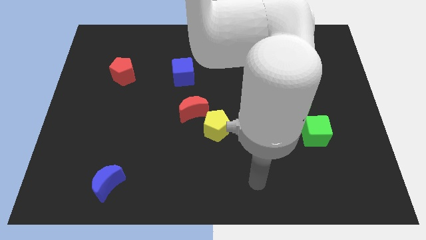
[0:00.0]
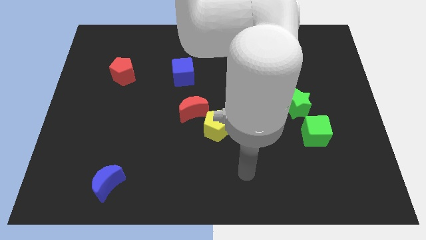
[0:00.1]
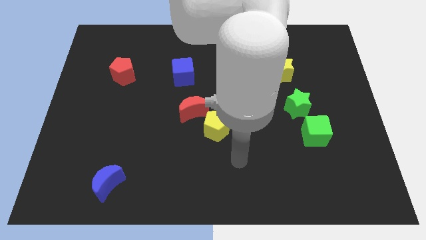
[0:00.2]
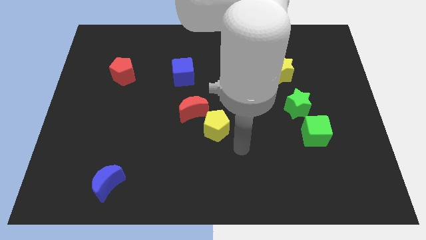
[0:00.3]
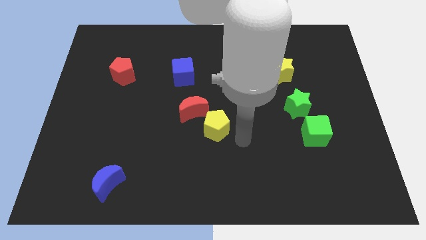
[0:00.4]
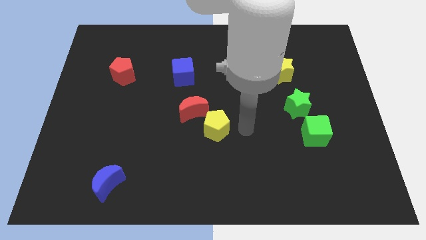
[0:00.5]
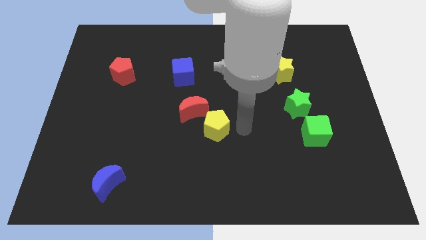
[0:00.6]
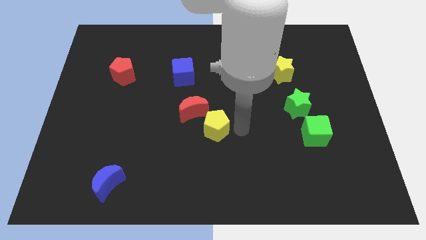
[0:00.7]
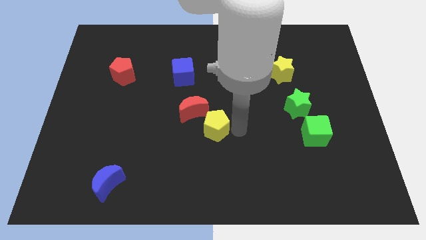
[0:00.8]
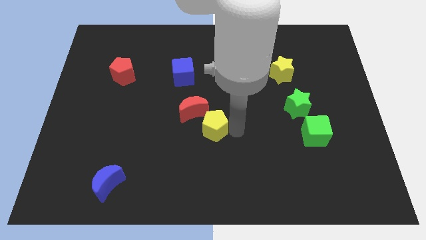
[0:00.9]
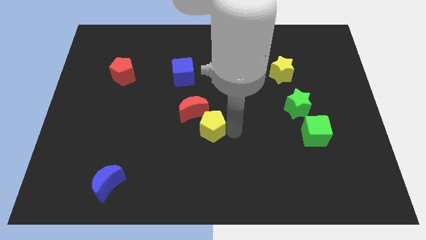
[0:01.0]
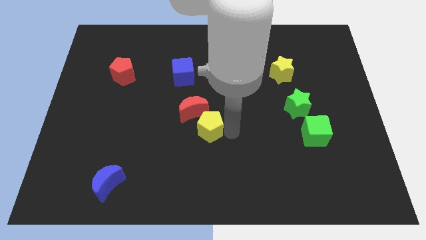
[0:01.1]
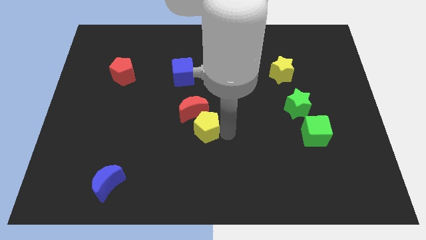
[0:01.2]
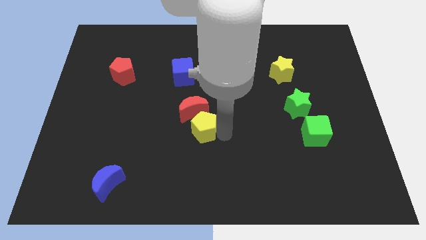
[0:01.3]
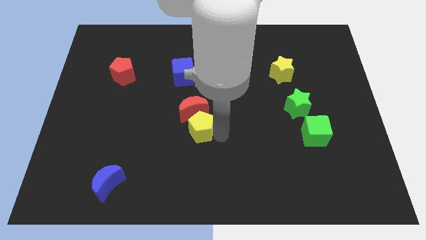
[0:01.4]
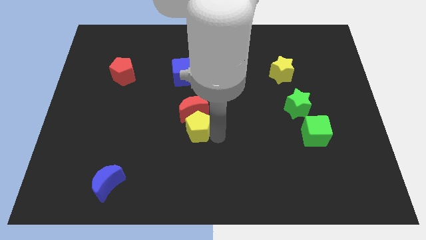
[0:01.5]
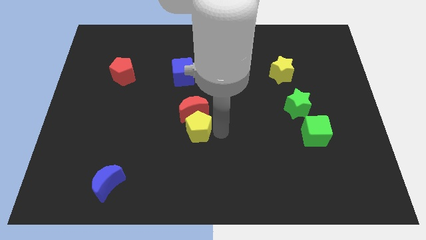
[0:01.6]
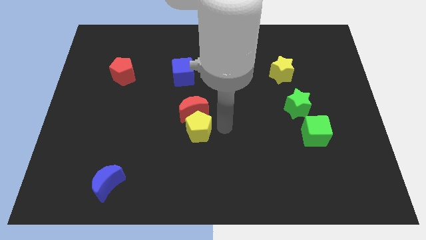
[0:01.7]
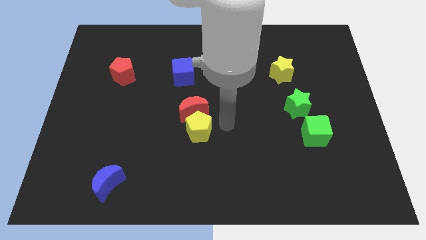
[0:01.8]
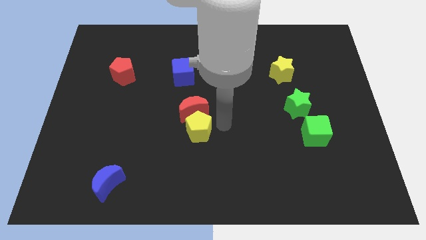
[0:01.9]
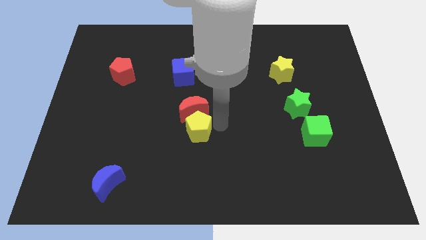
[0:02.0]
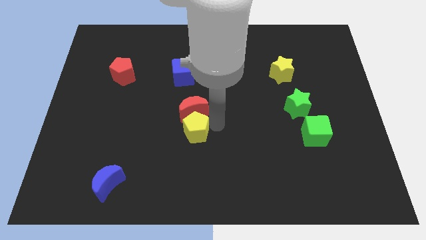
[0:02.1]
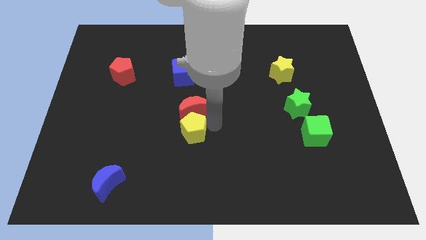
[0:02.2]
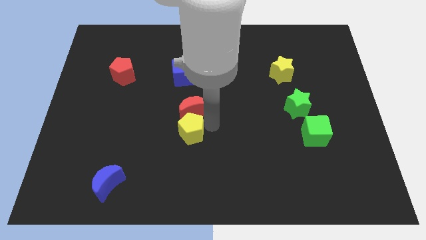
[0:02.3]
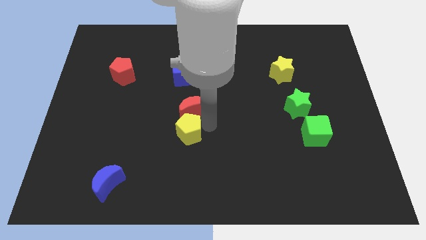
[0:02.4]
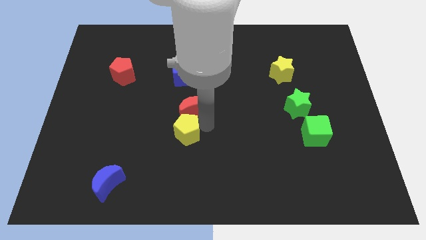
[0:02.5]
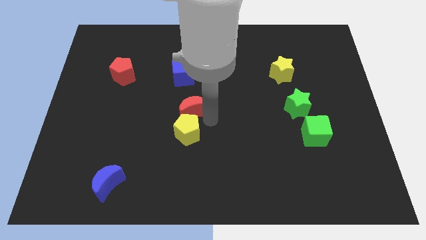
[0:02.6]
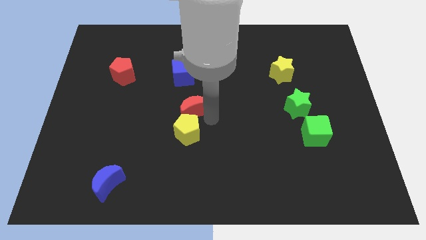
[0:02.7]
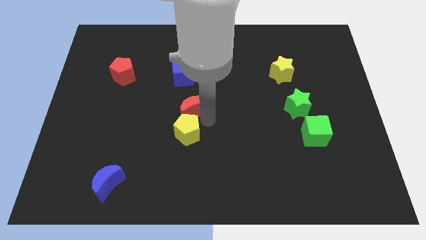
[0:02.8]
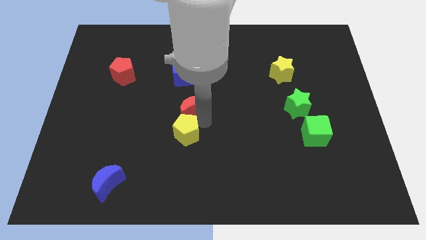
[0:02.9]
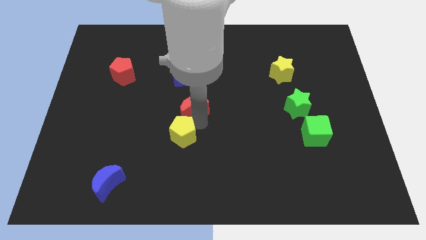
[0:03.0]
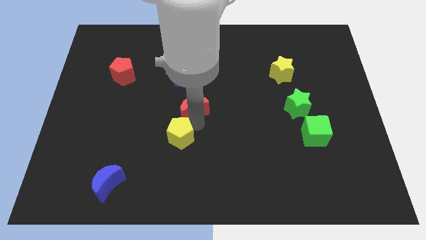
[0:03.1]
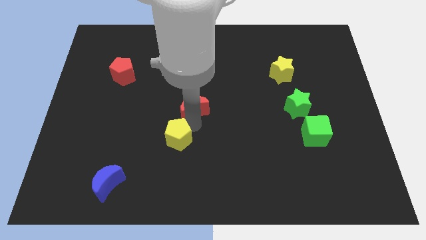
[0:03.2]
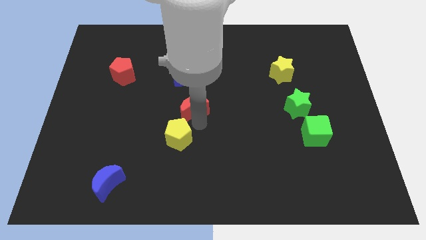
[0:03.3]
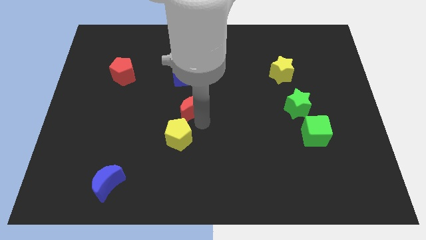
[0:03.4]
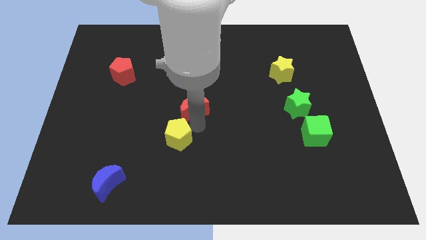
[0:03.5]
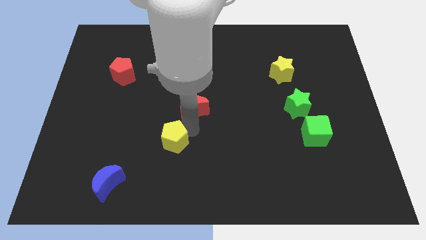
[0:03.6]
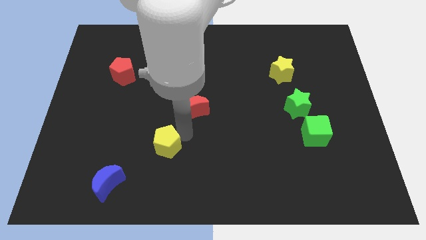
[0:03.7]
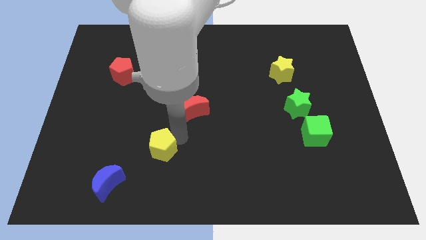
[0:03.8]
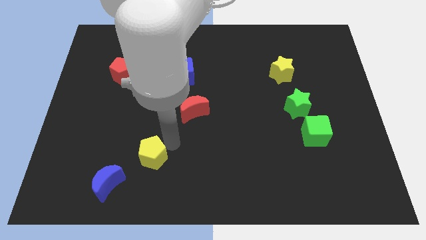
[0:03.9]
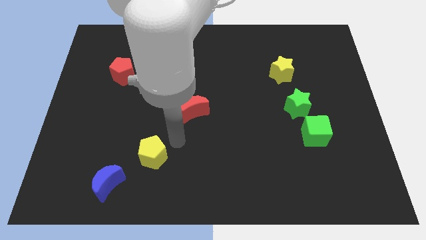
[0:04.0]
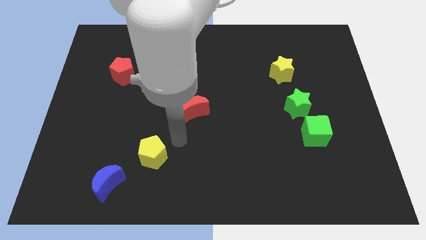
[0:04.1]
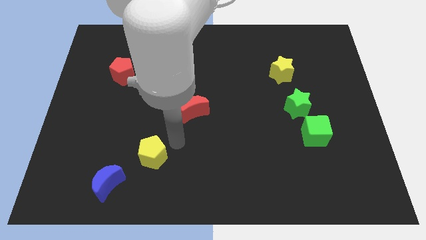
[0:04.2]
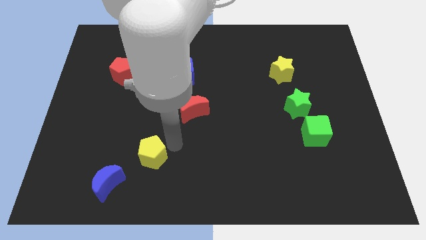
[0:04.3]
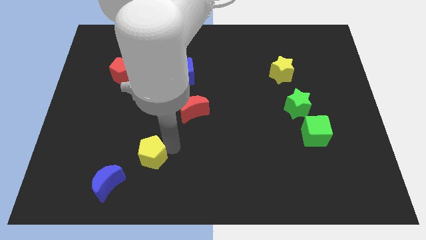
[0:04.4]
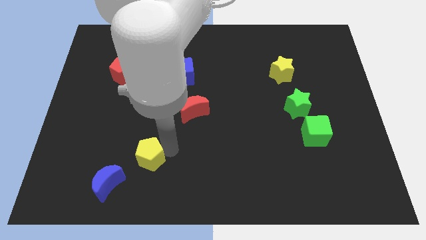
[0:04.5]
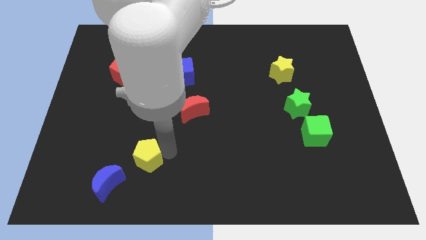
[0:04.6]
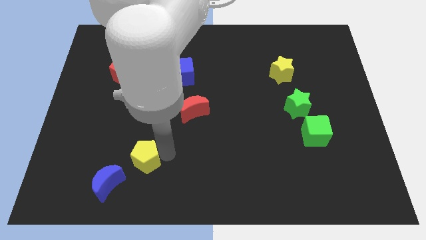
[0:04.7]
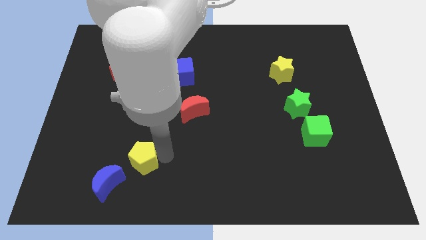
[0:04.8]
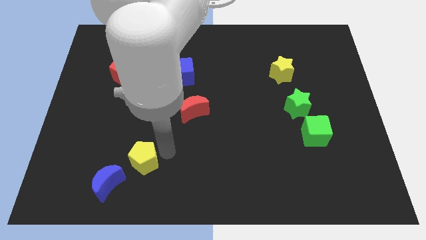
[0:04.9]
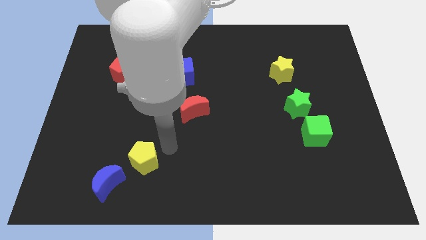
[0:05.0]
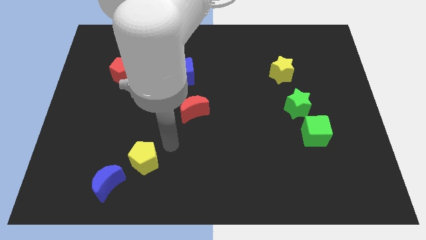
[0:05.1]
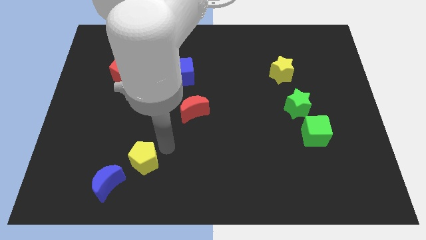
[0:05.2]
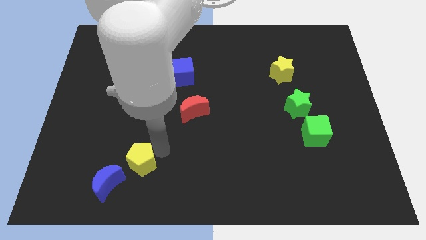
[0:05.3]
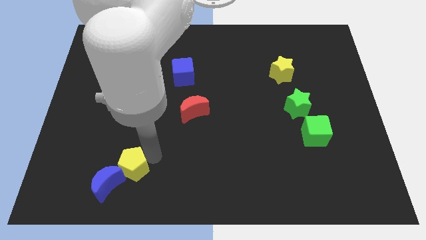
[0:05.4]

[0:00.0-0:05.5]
slide the yellow pentagon next to the blue moon

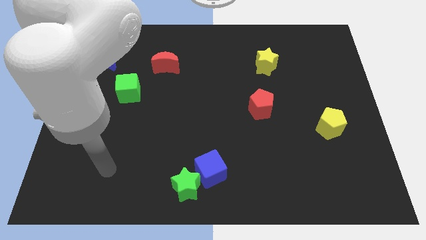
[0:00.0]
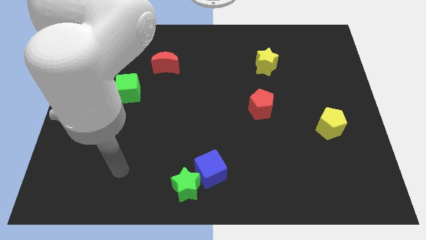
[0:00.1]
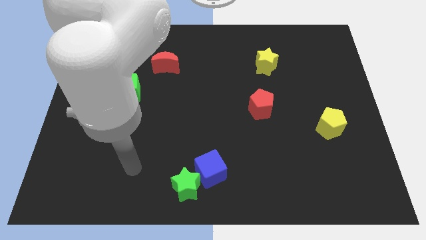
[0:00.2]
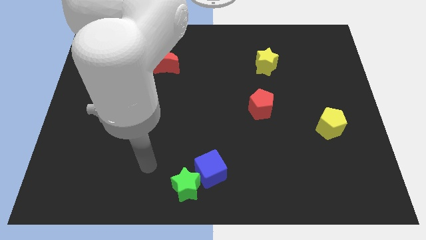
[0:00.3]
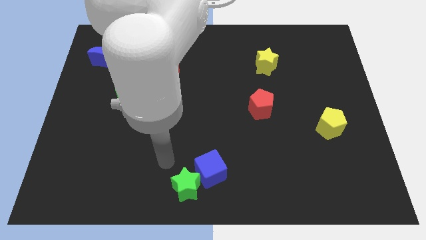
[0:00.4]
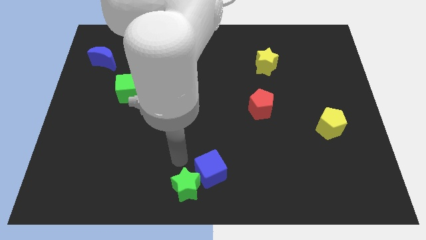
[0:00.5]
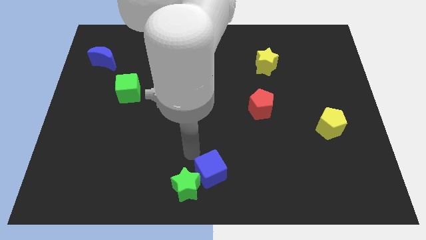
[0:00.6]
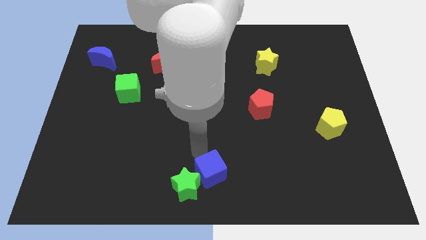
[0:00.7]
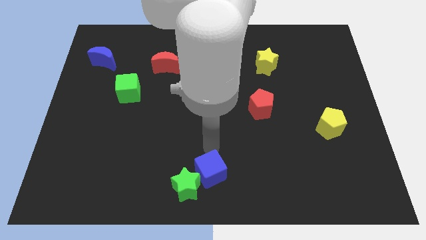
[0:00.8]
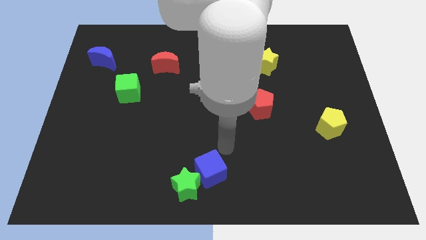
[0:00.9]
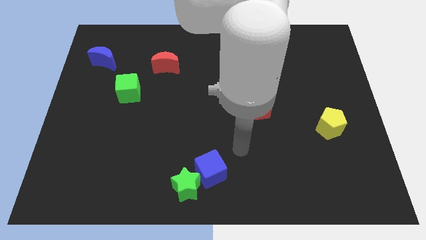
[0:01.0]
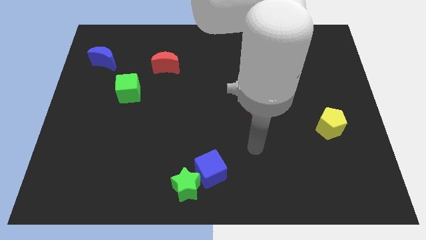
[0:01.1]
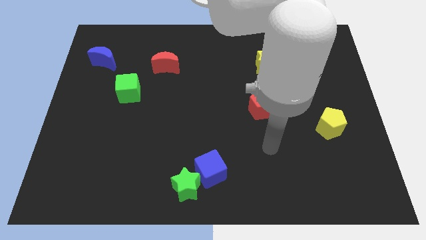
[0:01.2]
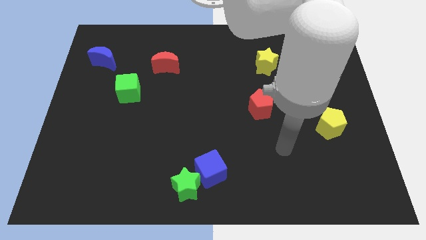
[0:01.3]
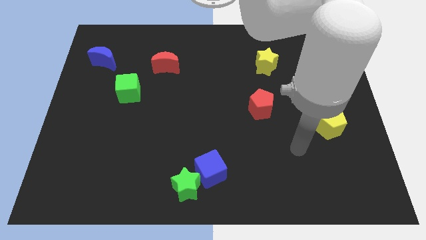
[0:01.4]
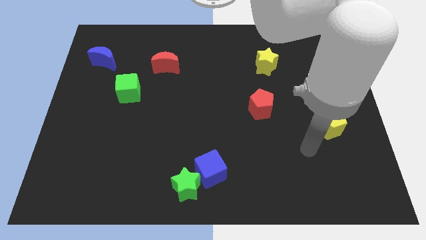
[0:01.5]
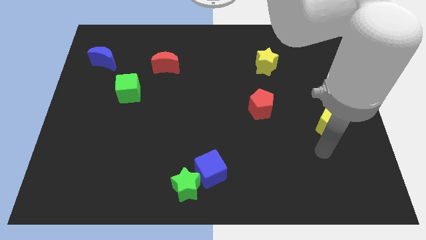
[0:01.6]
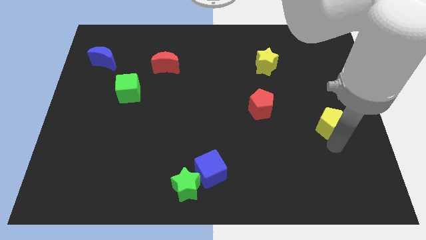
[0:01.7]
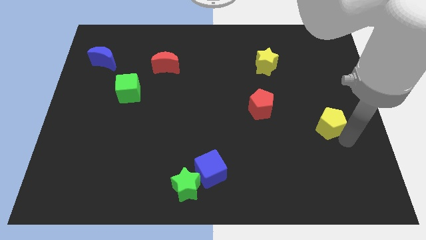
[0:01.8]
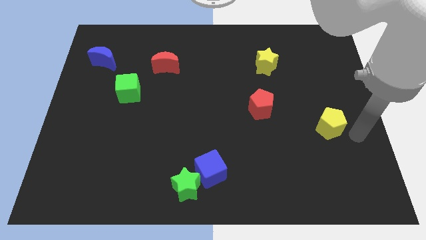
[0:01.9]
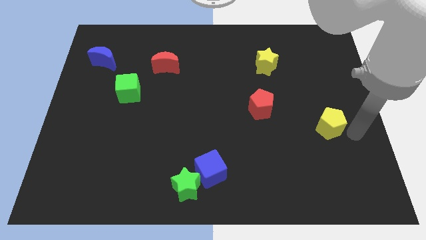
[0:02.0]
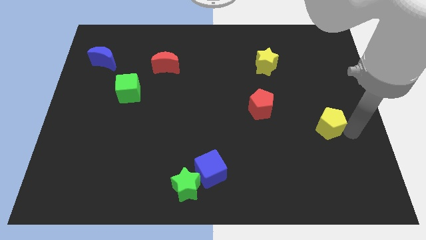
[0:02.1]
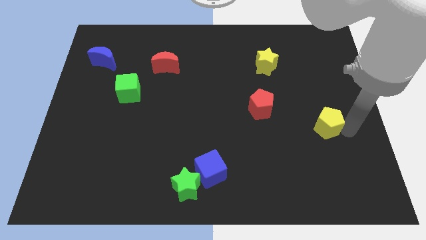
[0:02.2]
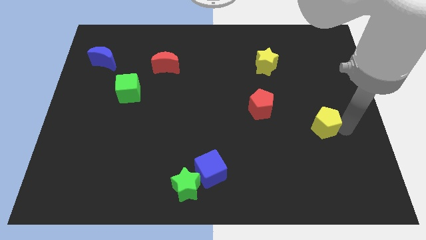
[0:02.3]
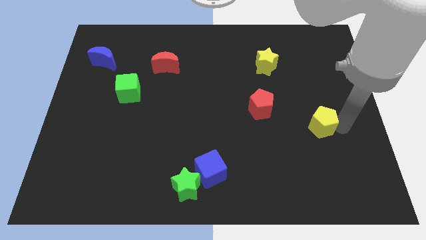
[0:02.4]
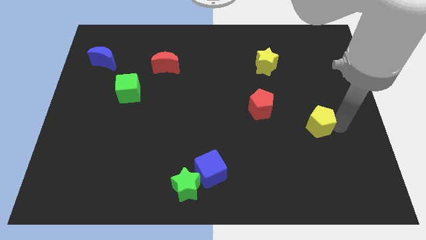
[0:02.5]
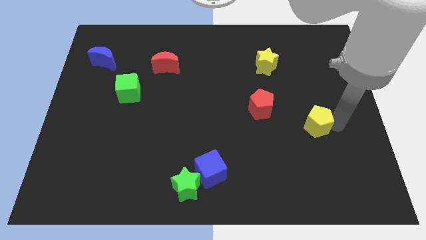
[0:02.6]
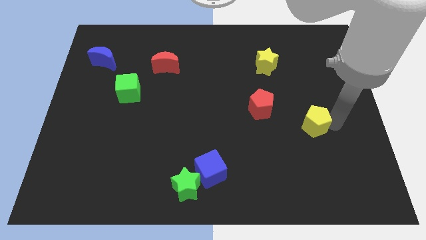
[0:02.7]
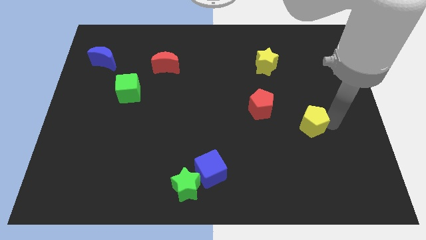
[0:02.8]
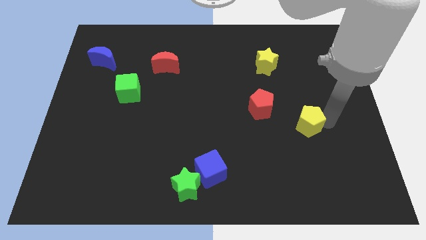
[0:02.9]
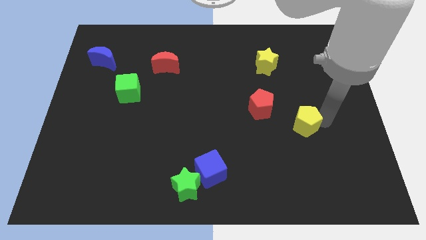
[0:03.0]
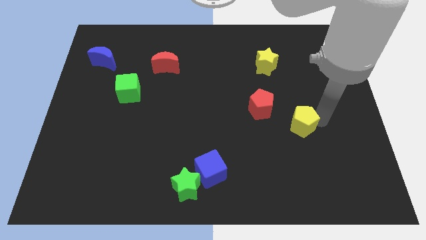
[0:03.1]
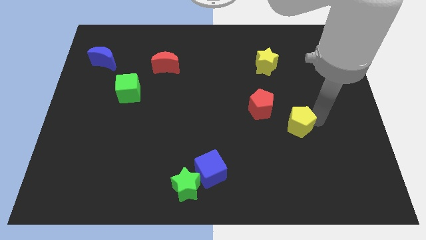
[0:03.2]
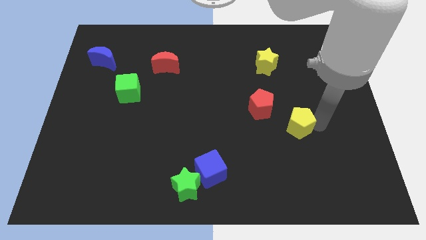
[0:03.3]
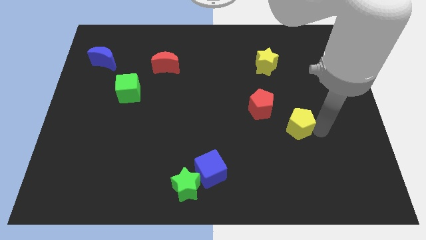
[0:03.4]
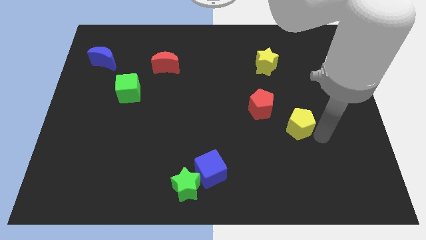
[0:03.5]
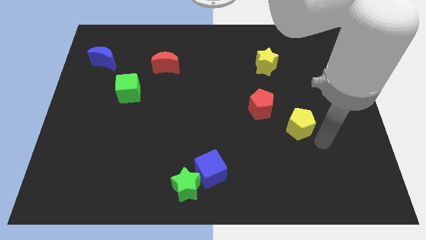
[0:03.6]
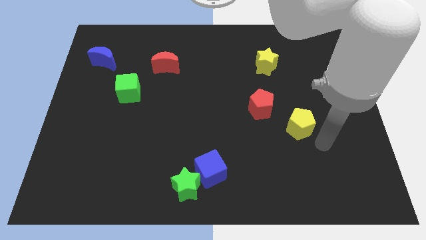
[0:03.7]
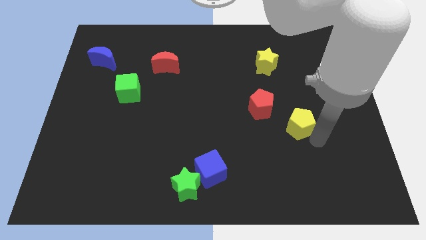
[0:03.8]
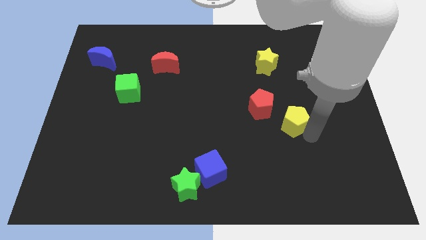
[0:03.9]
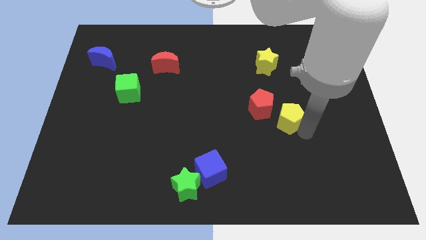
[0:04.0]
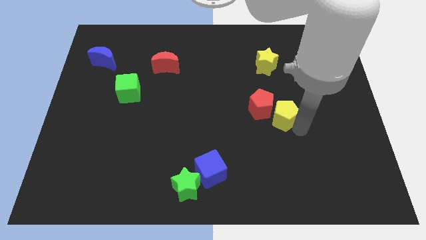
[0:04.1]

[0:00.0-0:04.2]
push the yellow pentagon next to the red pentagon
